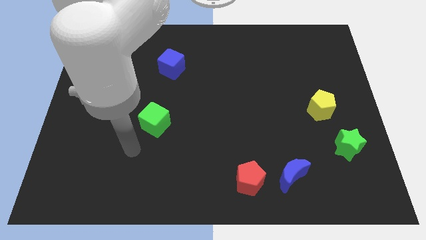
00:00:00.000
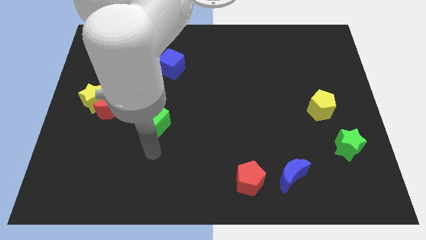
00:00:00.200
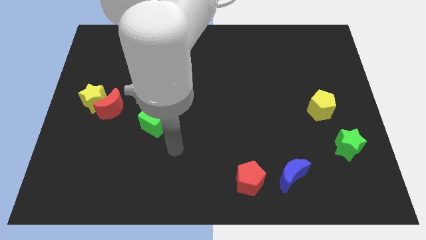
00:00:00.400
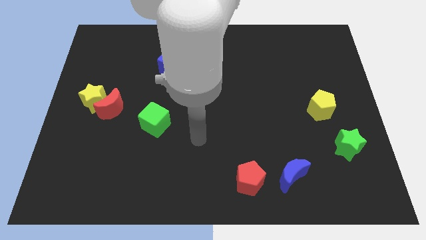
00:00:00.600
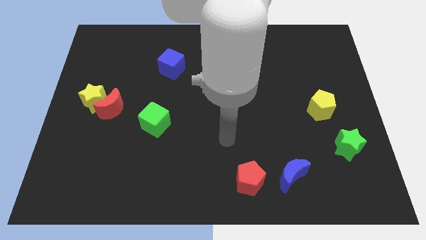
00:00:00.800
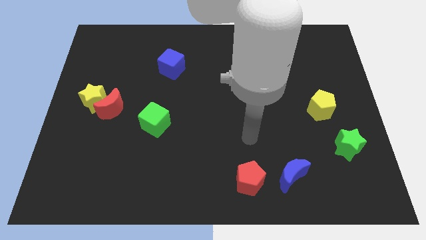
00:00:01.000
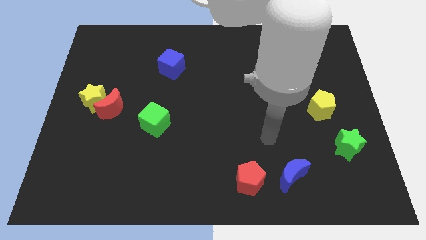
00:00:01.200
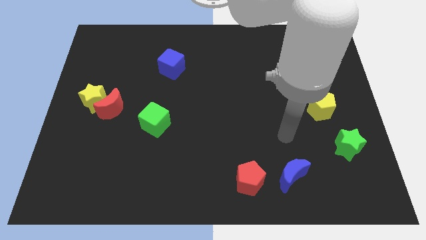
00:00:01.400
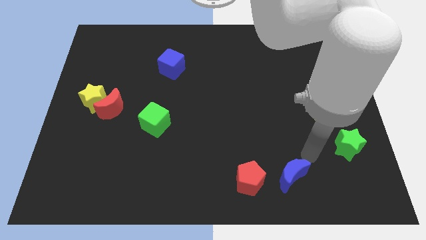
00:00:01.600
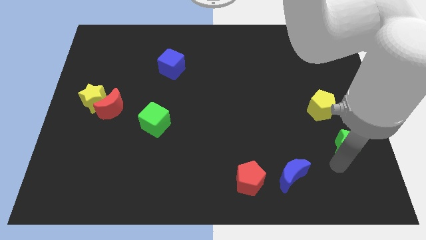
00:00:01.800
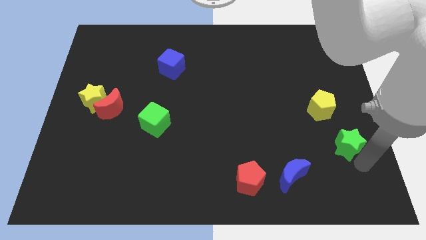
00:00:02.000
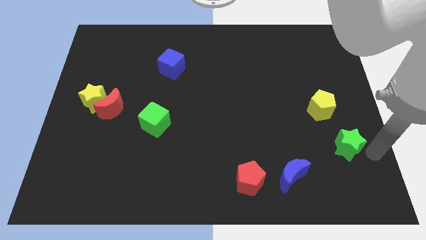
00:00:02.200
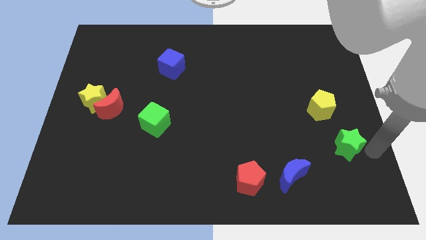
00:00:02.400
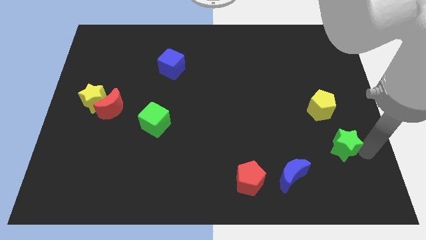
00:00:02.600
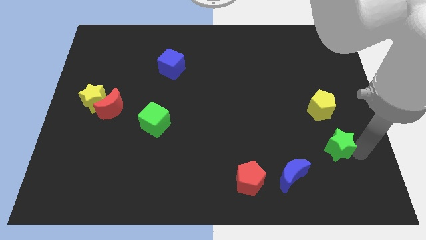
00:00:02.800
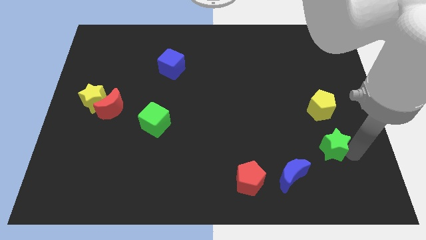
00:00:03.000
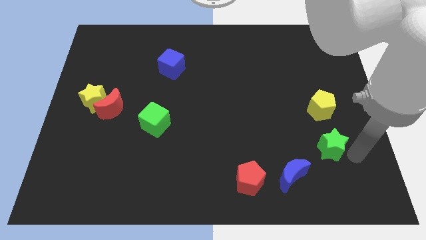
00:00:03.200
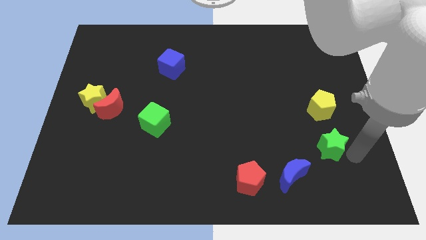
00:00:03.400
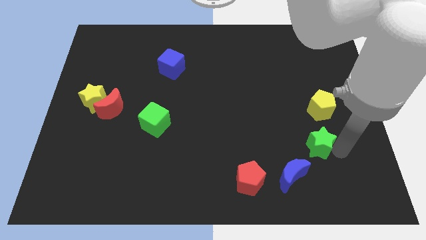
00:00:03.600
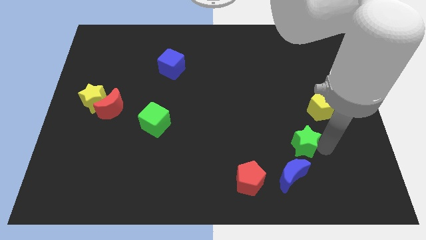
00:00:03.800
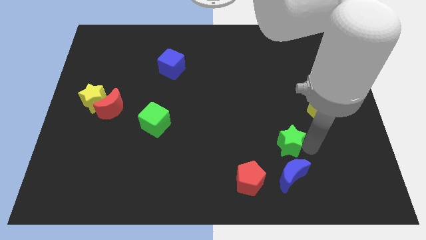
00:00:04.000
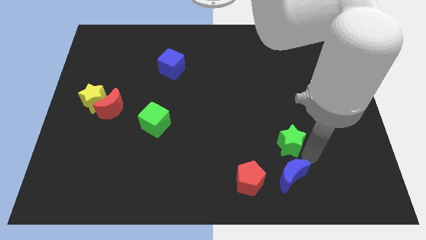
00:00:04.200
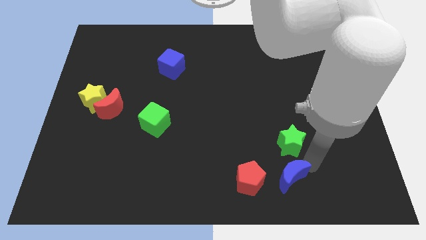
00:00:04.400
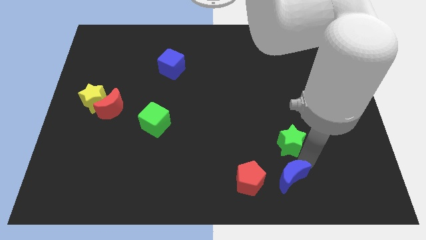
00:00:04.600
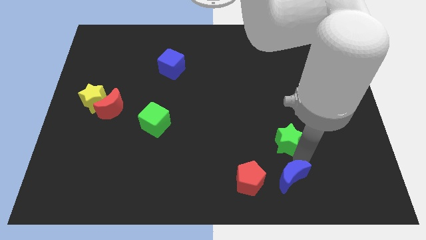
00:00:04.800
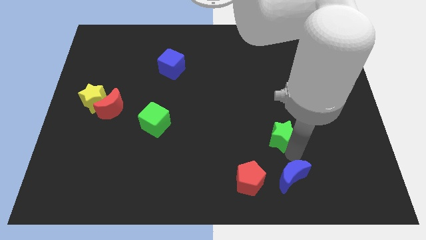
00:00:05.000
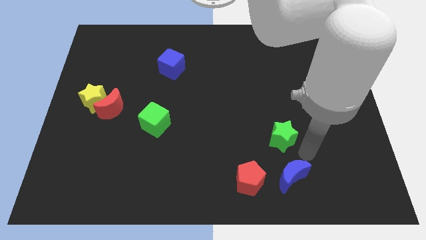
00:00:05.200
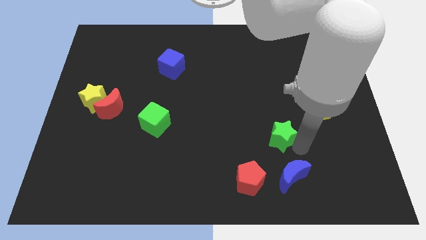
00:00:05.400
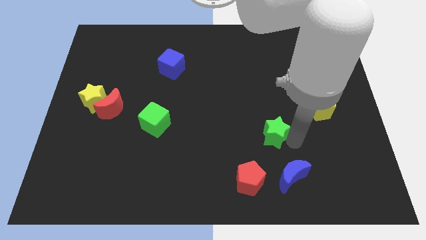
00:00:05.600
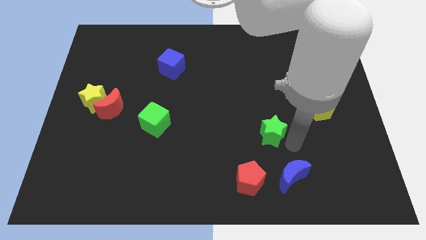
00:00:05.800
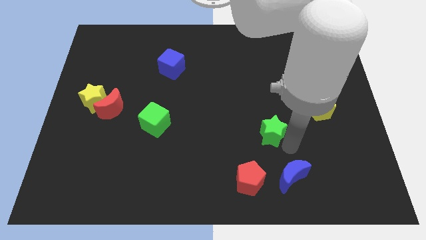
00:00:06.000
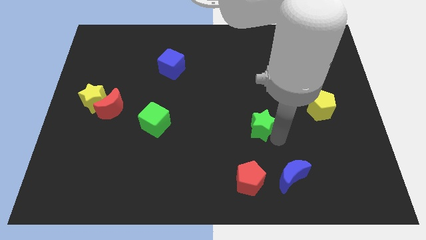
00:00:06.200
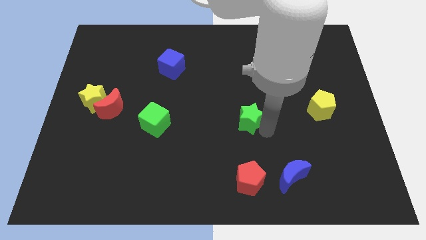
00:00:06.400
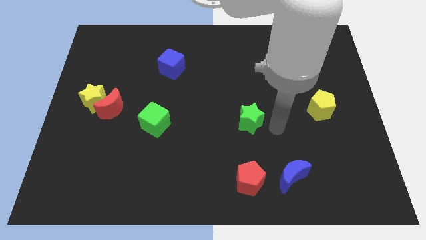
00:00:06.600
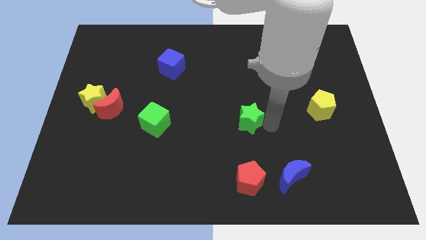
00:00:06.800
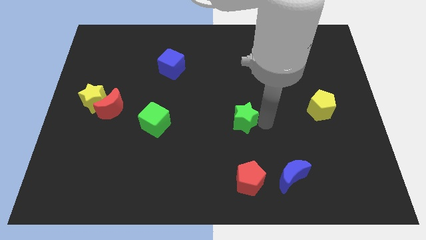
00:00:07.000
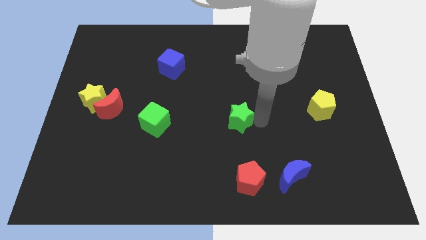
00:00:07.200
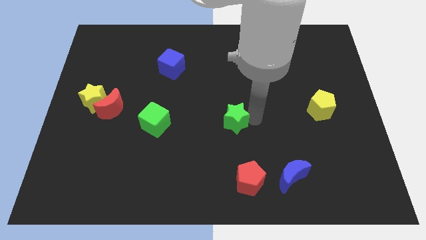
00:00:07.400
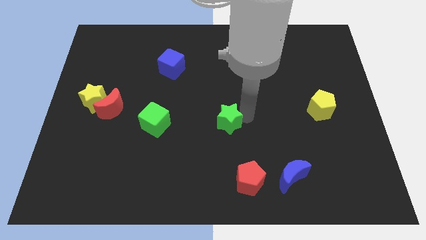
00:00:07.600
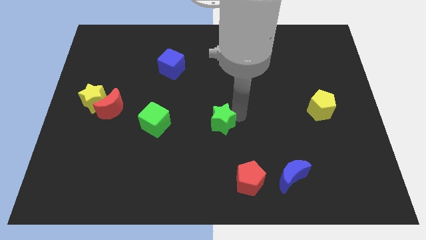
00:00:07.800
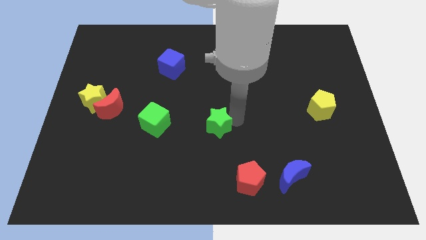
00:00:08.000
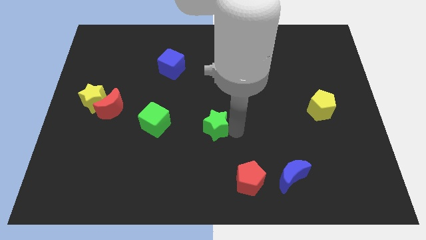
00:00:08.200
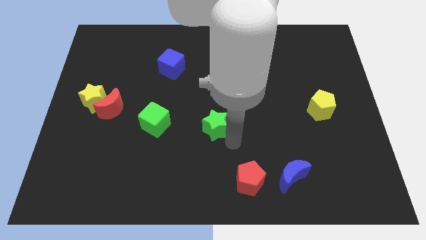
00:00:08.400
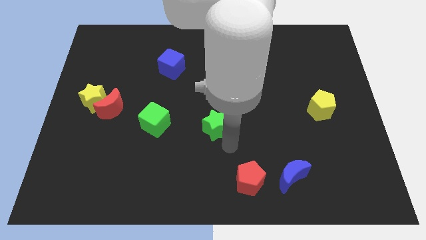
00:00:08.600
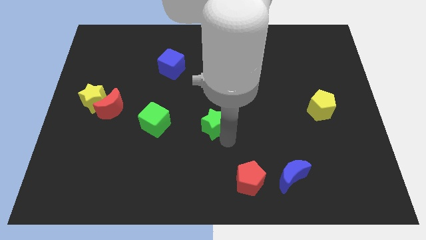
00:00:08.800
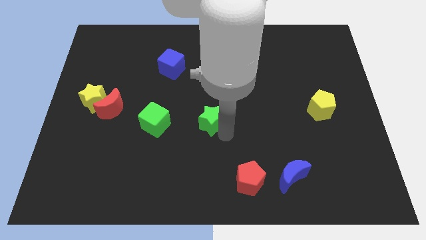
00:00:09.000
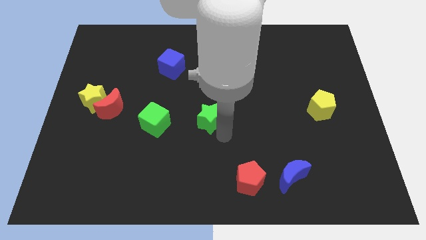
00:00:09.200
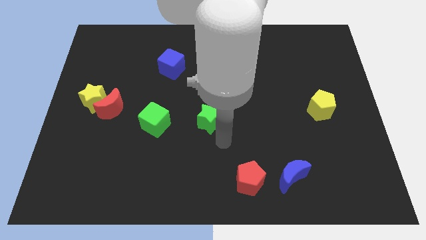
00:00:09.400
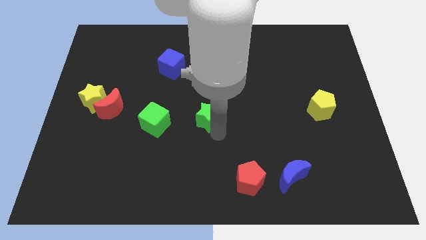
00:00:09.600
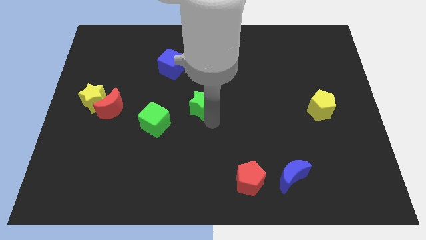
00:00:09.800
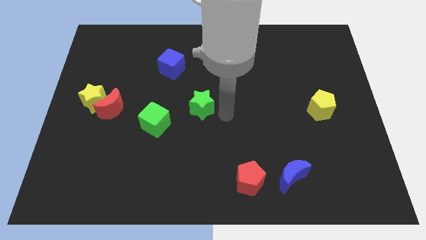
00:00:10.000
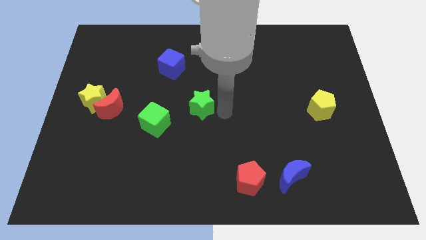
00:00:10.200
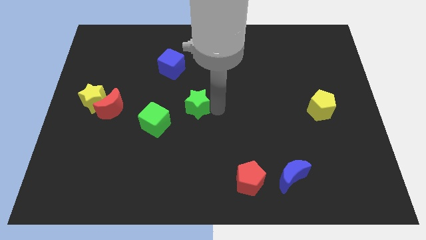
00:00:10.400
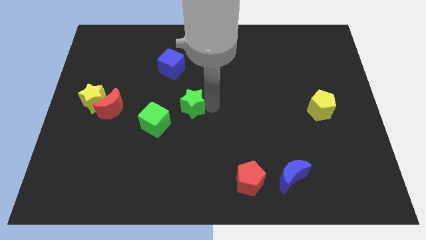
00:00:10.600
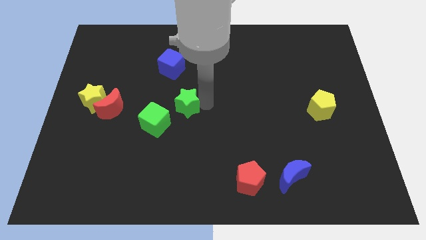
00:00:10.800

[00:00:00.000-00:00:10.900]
slide the green star below the blue cube

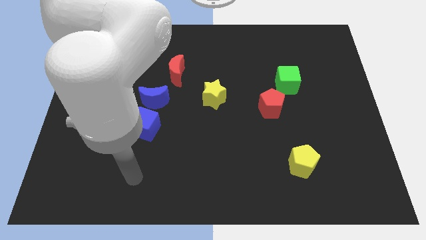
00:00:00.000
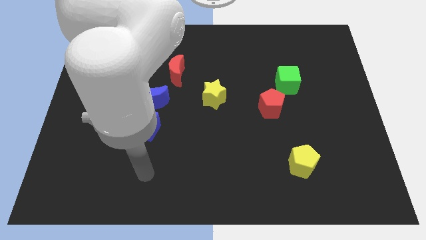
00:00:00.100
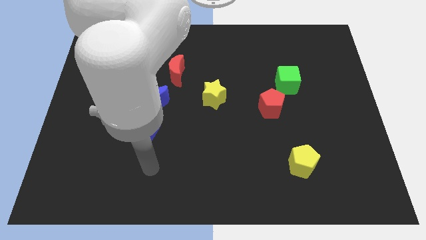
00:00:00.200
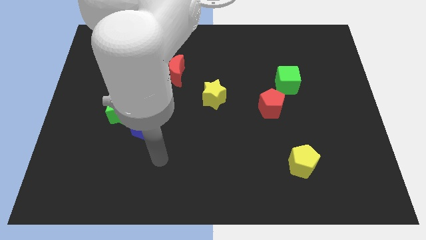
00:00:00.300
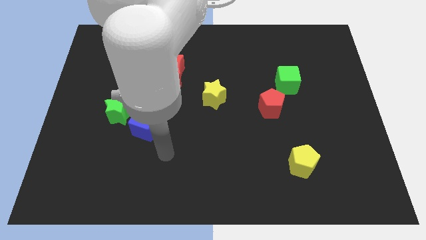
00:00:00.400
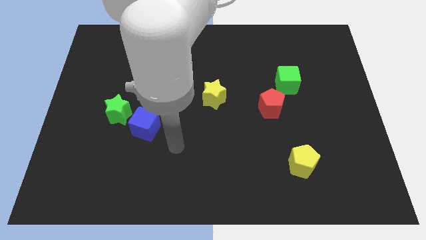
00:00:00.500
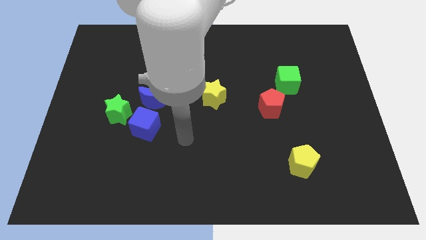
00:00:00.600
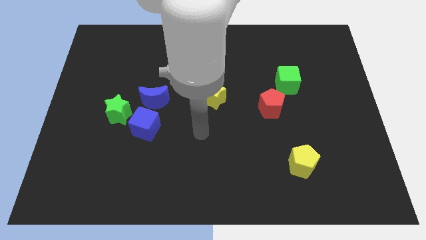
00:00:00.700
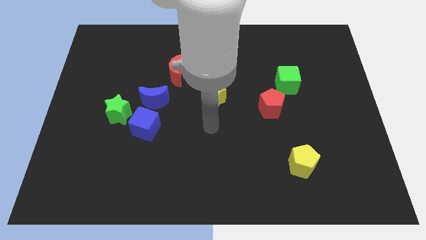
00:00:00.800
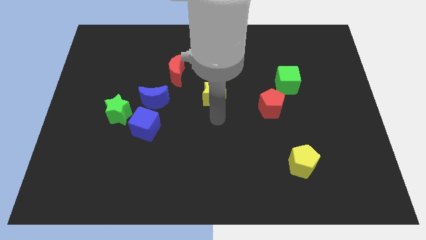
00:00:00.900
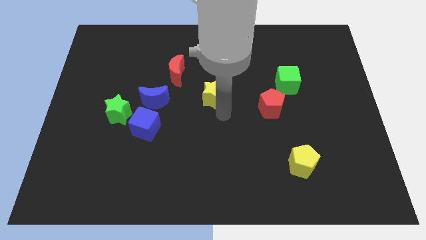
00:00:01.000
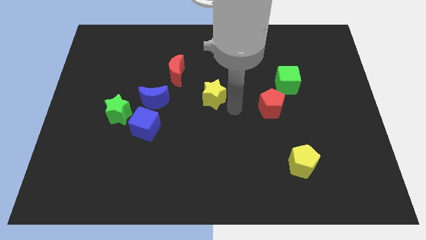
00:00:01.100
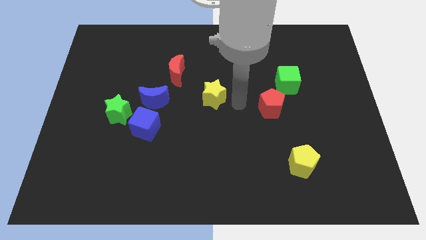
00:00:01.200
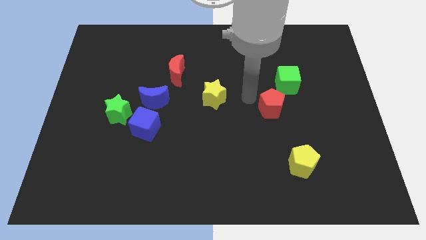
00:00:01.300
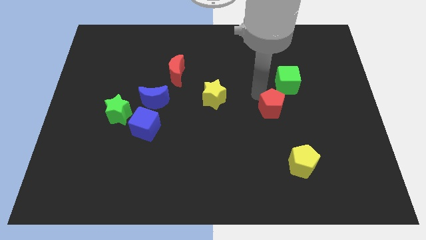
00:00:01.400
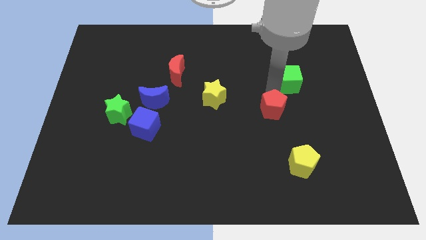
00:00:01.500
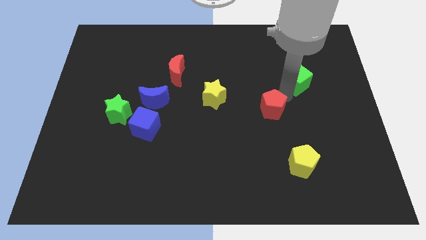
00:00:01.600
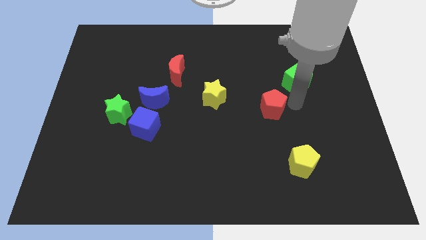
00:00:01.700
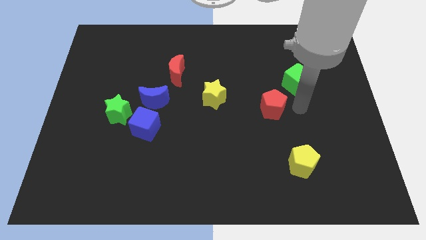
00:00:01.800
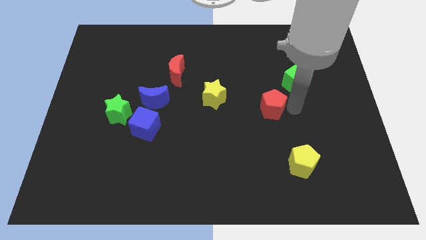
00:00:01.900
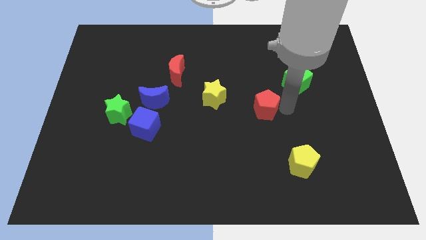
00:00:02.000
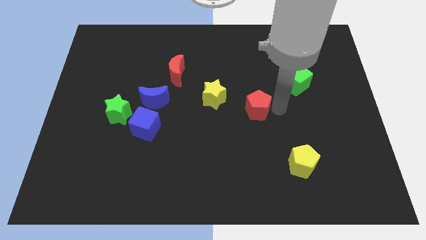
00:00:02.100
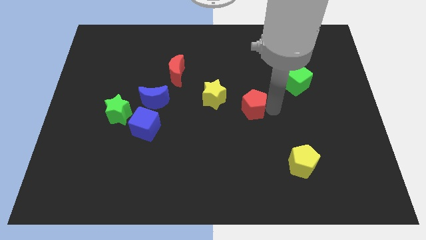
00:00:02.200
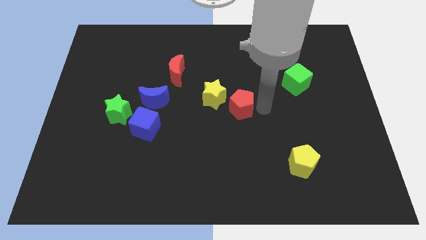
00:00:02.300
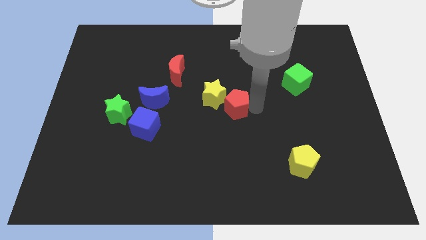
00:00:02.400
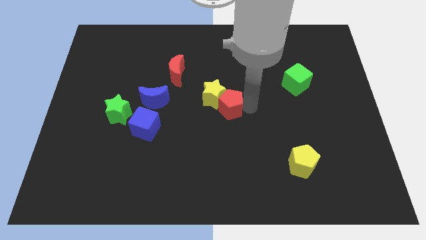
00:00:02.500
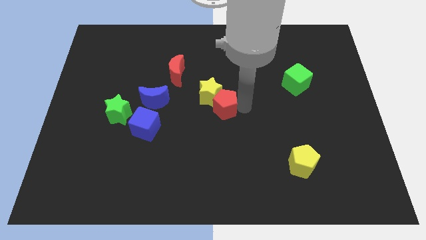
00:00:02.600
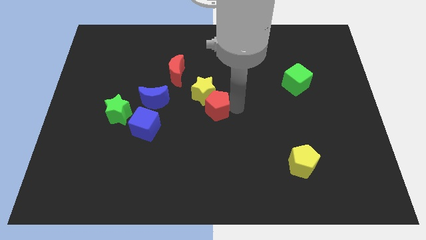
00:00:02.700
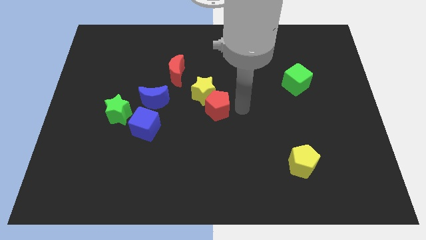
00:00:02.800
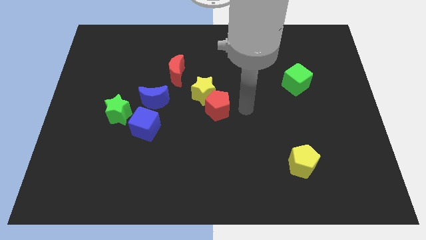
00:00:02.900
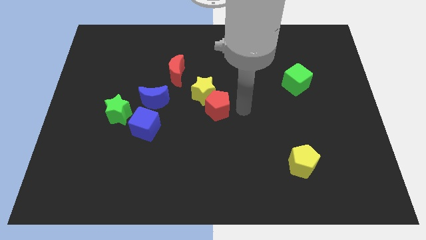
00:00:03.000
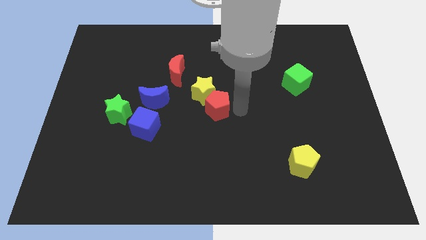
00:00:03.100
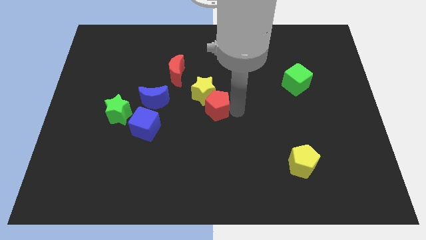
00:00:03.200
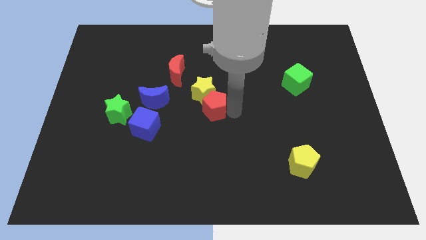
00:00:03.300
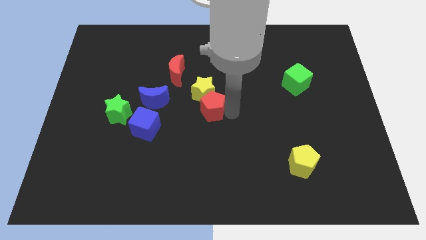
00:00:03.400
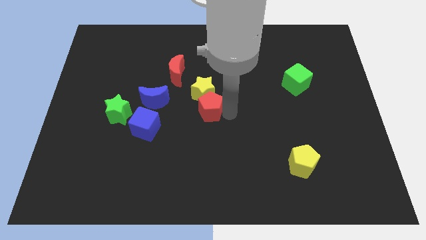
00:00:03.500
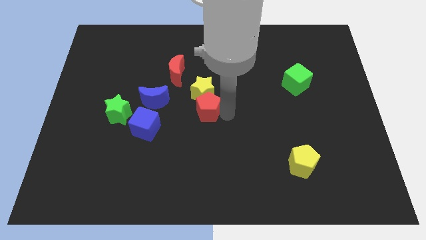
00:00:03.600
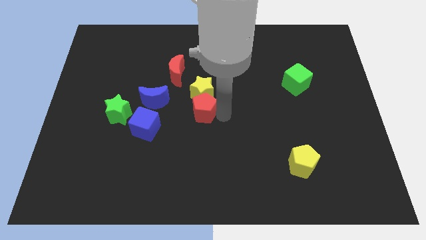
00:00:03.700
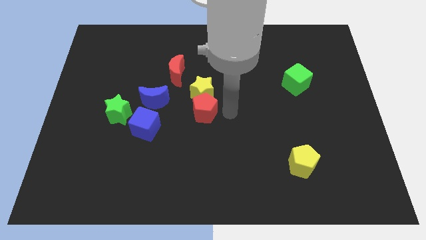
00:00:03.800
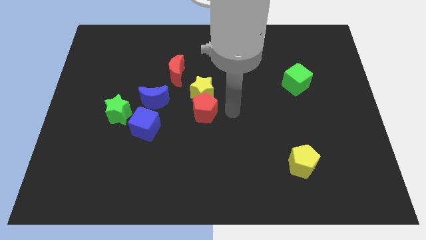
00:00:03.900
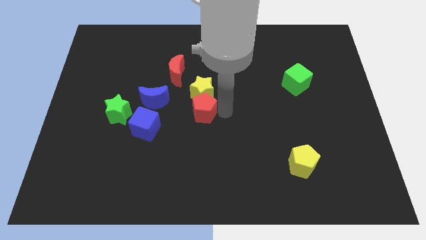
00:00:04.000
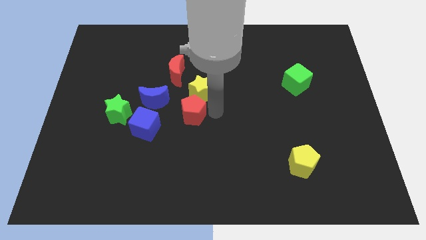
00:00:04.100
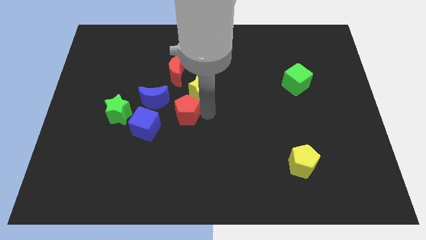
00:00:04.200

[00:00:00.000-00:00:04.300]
move the red pentagon to the right of the green star
